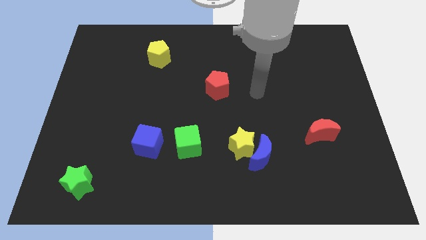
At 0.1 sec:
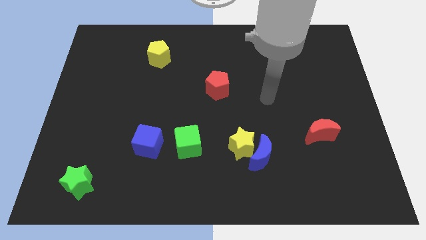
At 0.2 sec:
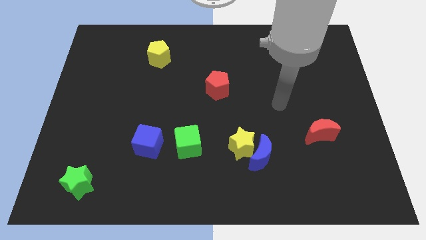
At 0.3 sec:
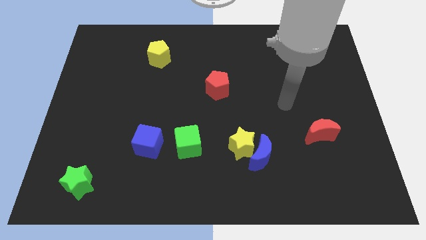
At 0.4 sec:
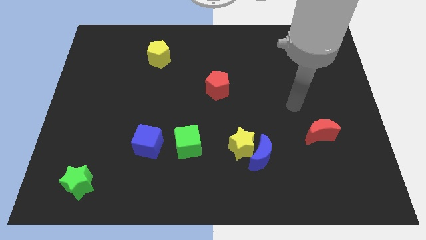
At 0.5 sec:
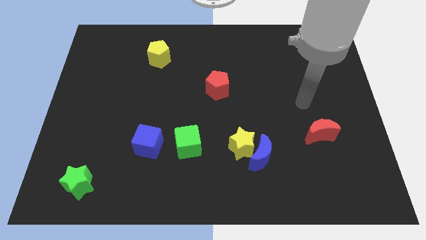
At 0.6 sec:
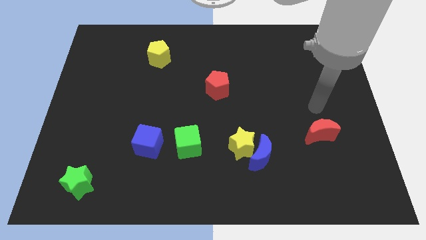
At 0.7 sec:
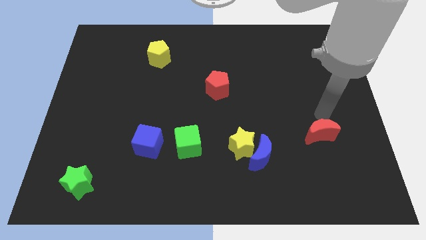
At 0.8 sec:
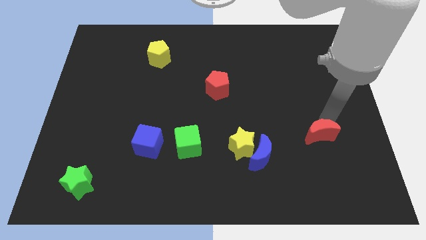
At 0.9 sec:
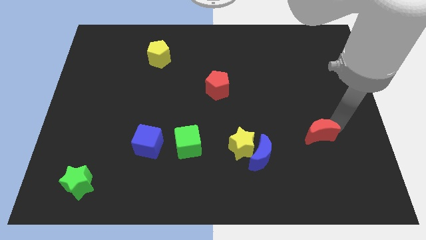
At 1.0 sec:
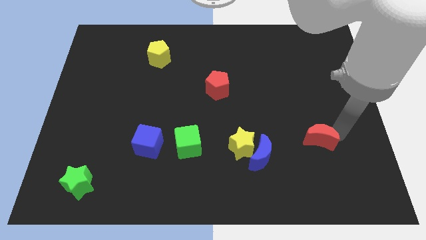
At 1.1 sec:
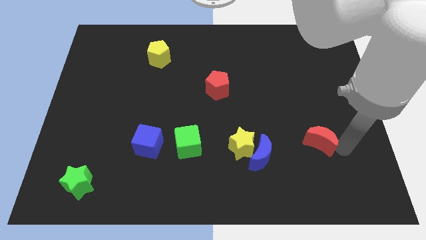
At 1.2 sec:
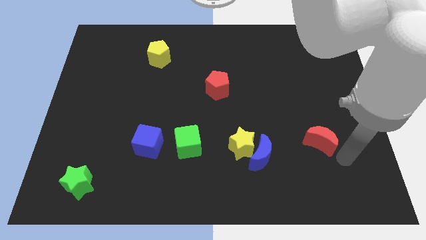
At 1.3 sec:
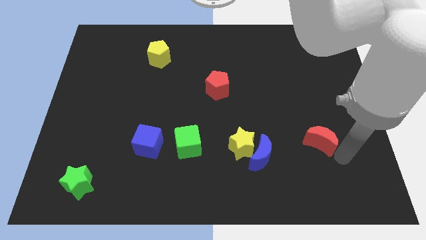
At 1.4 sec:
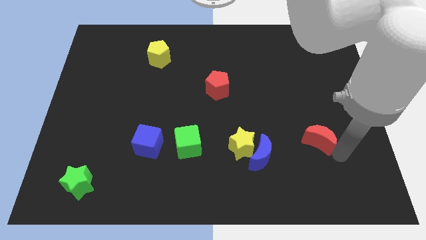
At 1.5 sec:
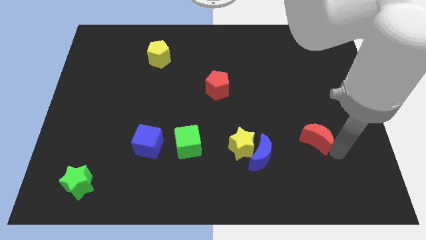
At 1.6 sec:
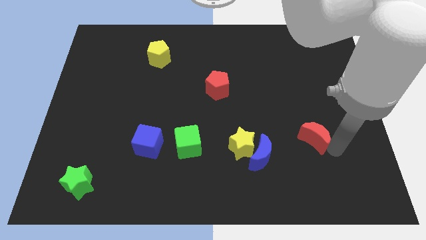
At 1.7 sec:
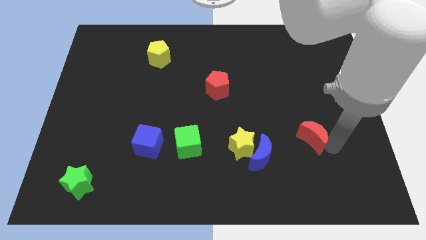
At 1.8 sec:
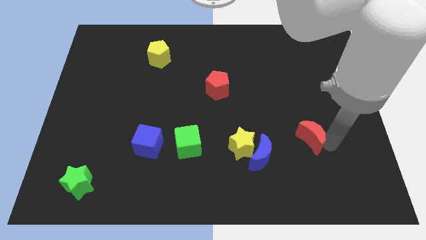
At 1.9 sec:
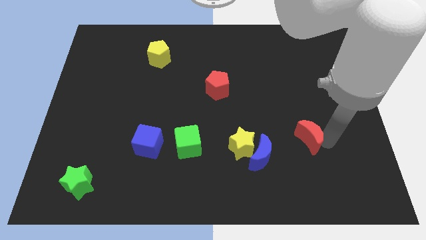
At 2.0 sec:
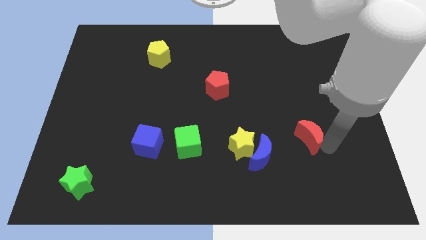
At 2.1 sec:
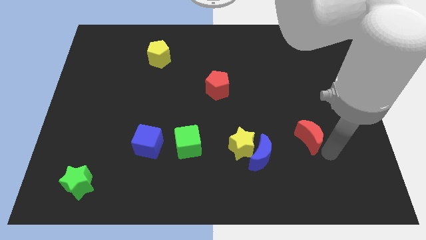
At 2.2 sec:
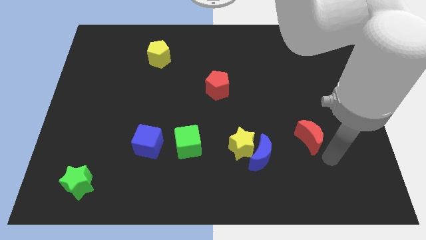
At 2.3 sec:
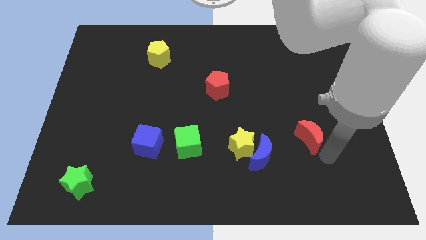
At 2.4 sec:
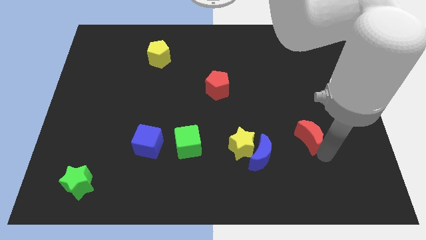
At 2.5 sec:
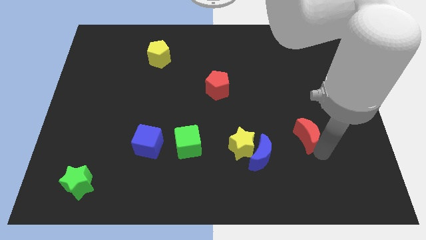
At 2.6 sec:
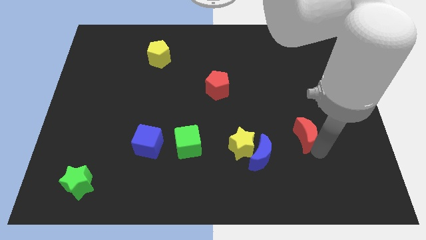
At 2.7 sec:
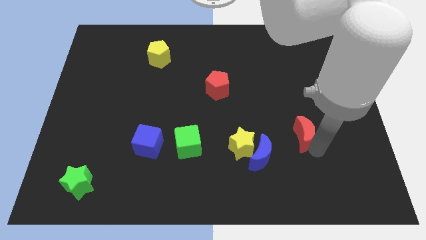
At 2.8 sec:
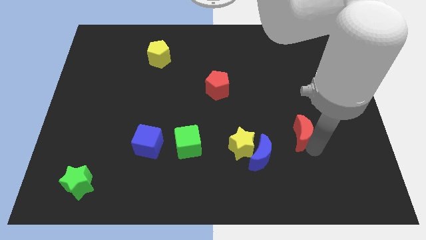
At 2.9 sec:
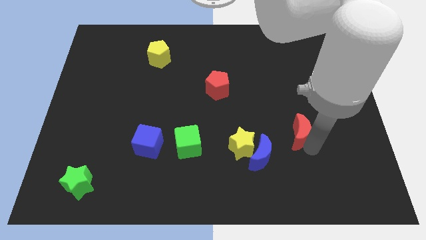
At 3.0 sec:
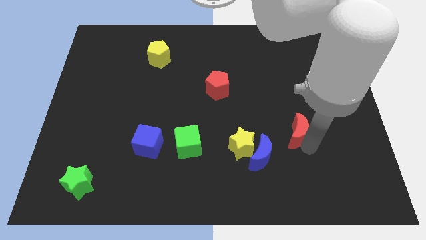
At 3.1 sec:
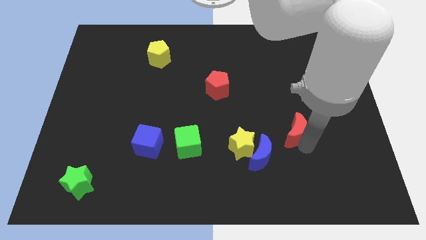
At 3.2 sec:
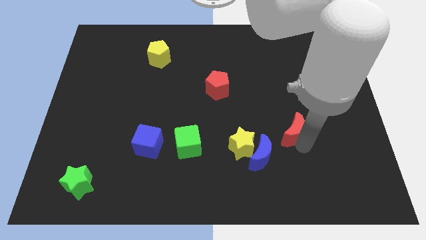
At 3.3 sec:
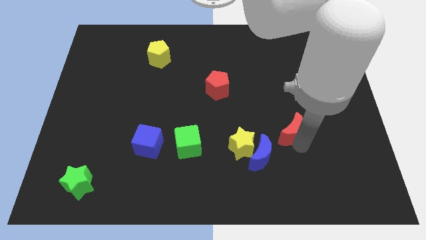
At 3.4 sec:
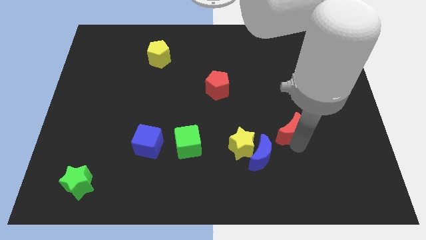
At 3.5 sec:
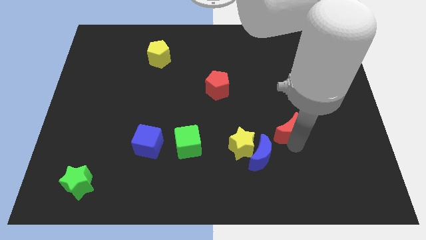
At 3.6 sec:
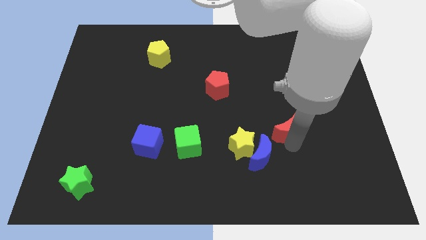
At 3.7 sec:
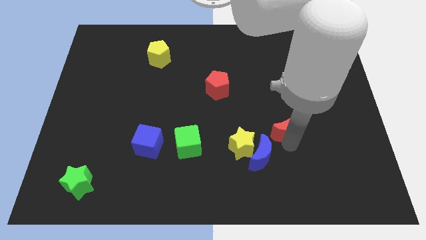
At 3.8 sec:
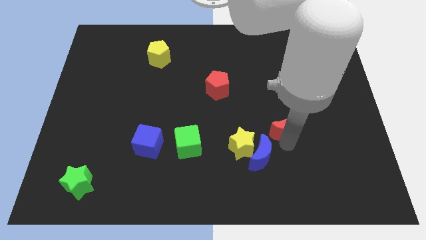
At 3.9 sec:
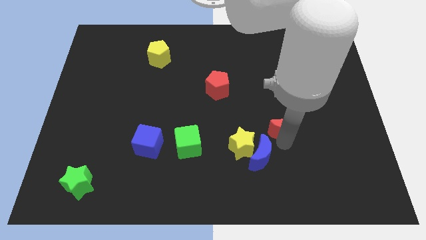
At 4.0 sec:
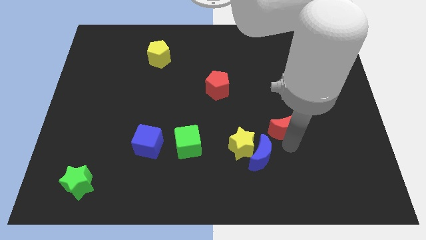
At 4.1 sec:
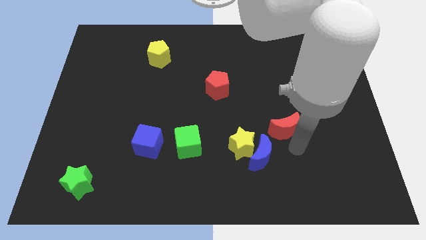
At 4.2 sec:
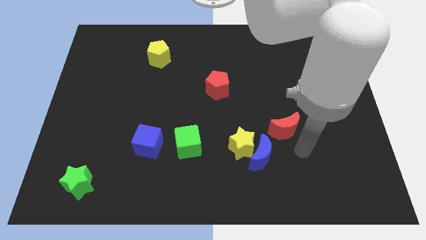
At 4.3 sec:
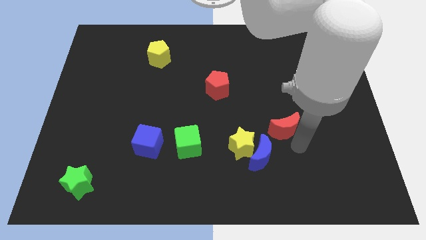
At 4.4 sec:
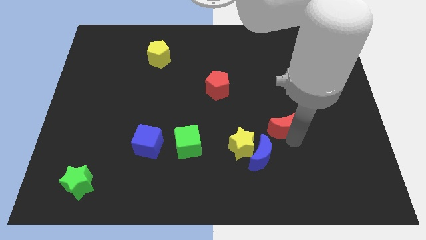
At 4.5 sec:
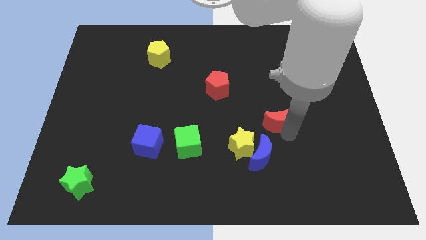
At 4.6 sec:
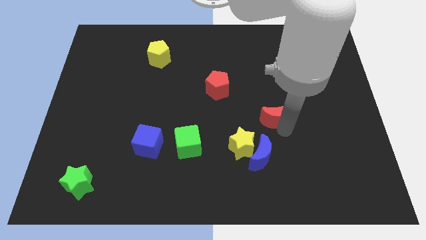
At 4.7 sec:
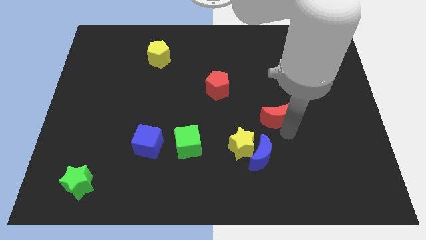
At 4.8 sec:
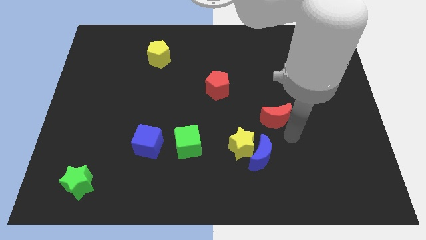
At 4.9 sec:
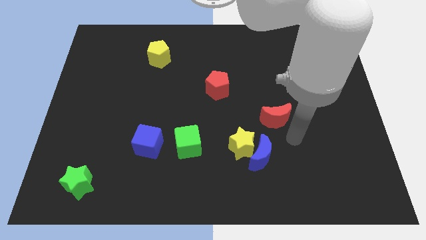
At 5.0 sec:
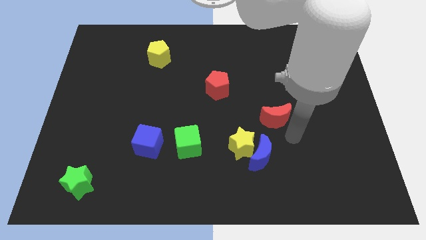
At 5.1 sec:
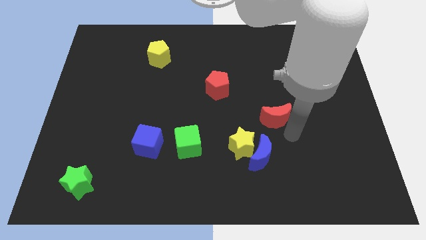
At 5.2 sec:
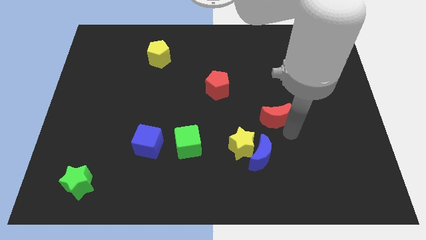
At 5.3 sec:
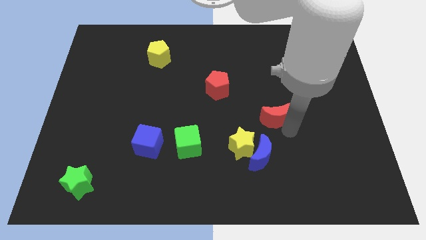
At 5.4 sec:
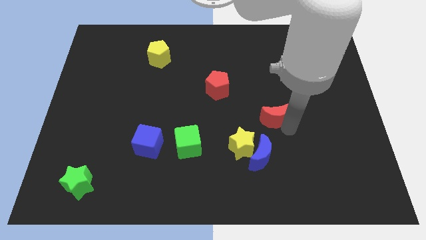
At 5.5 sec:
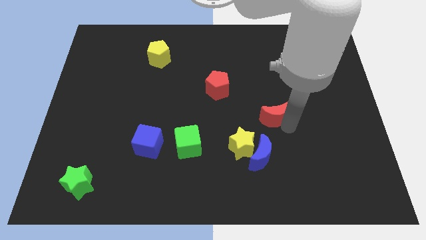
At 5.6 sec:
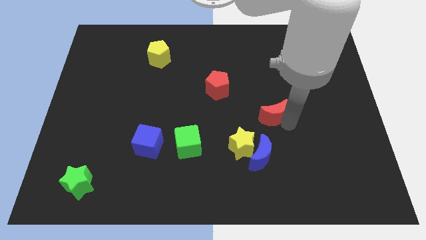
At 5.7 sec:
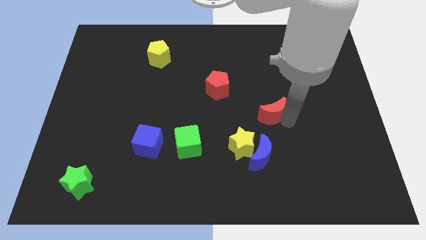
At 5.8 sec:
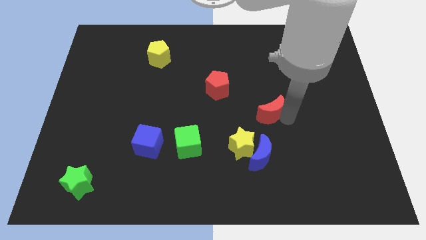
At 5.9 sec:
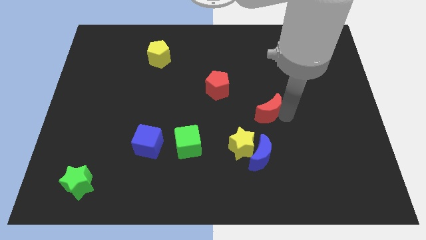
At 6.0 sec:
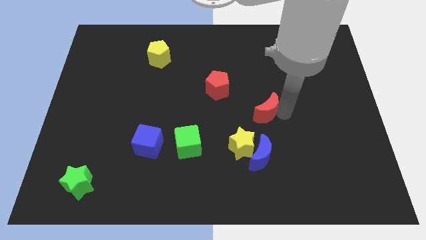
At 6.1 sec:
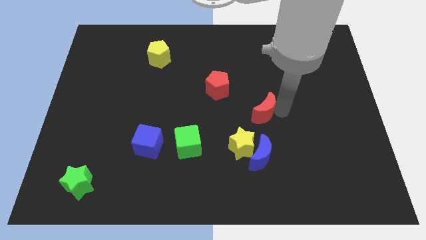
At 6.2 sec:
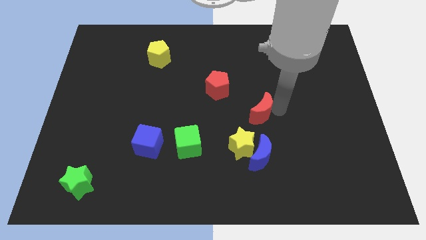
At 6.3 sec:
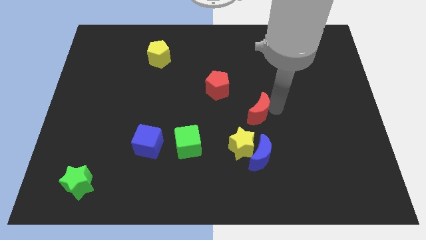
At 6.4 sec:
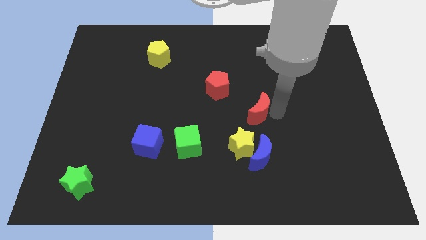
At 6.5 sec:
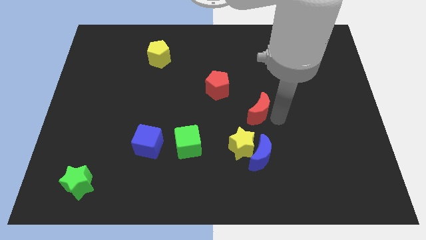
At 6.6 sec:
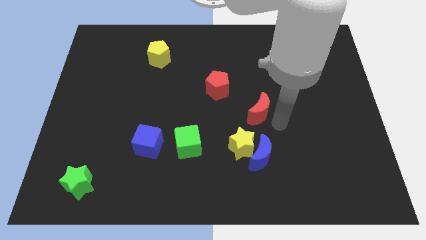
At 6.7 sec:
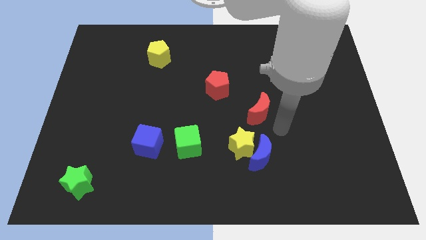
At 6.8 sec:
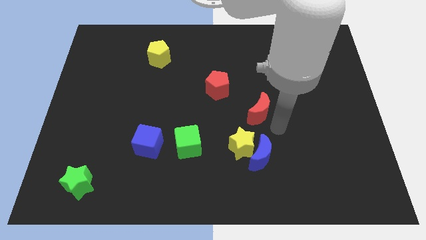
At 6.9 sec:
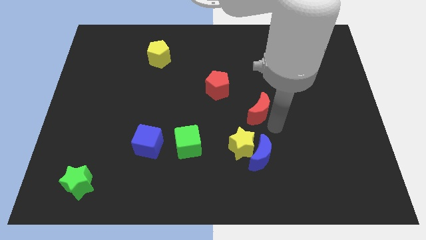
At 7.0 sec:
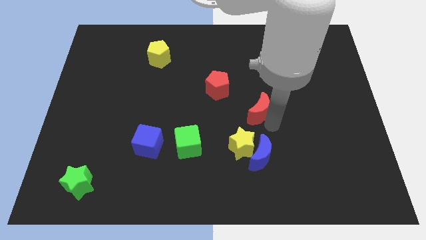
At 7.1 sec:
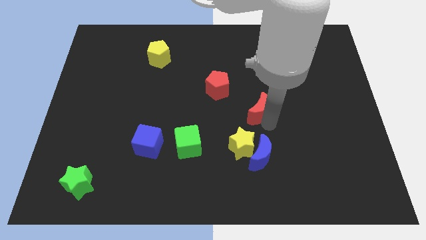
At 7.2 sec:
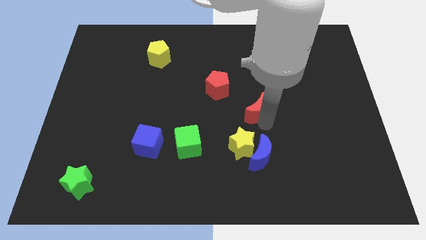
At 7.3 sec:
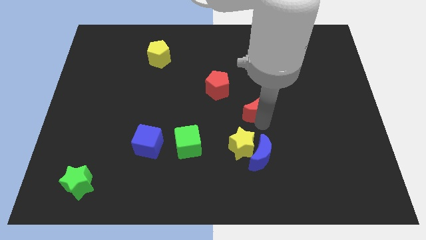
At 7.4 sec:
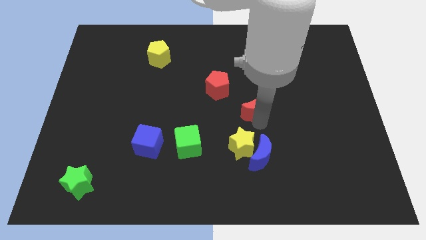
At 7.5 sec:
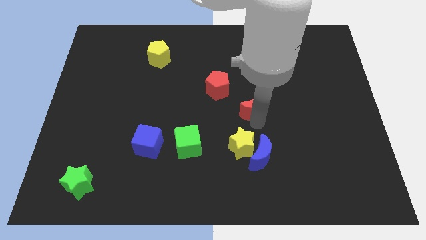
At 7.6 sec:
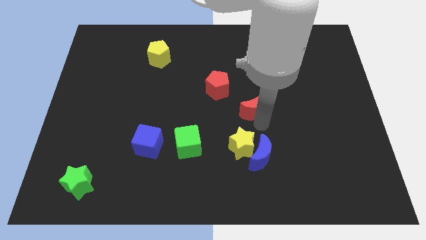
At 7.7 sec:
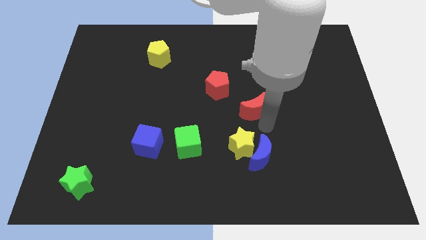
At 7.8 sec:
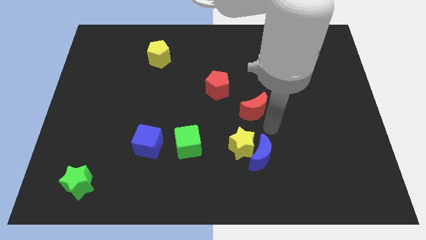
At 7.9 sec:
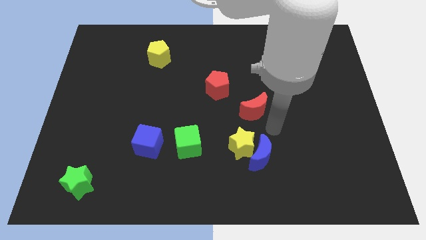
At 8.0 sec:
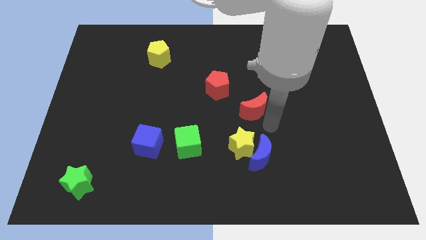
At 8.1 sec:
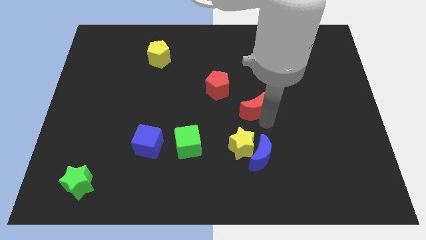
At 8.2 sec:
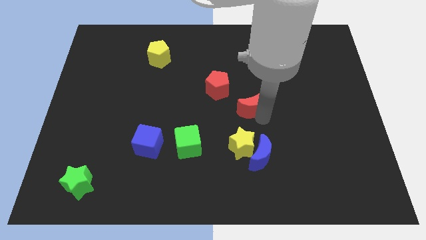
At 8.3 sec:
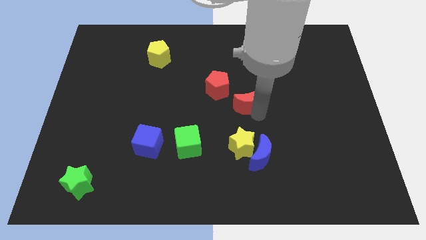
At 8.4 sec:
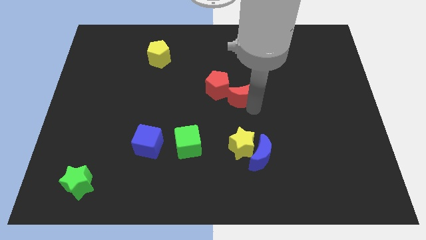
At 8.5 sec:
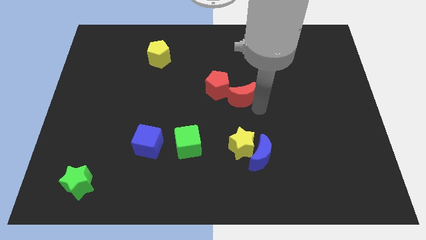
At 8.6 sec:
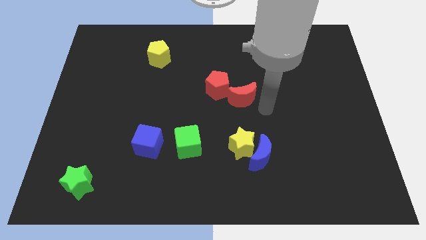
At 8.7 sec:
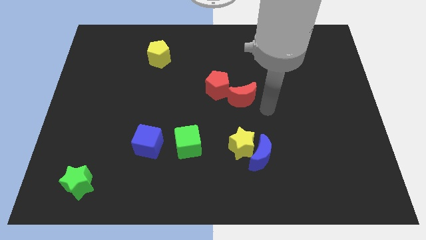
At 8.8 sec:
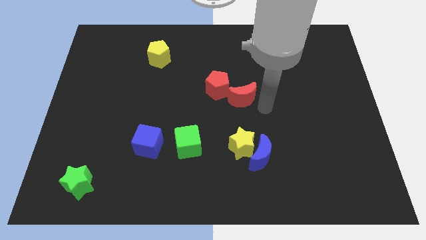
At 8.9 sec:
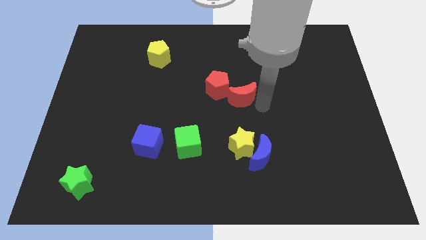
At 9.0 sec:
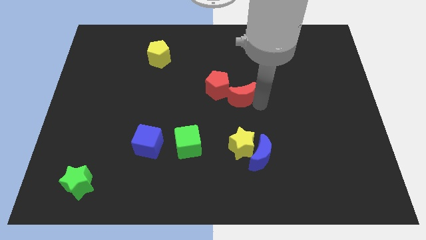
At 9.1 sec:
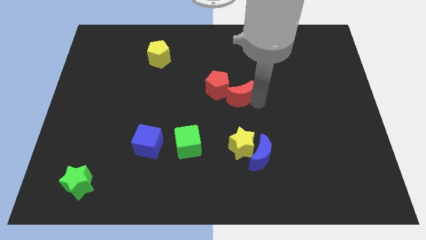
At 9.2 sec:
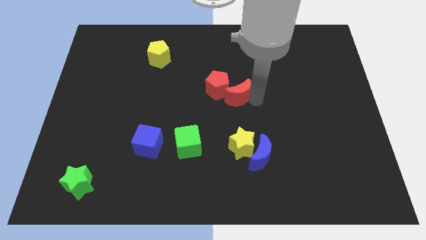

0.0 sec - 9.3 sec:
put the red moon close to the red pentagon
